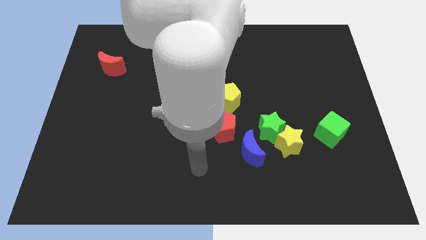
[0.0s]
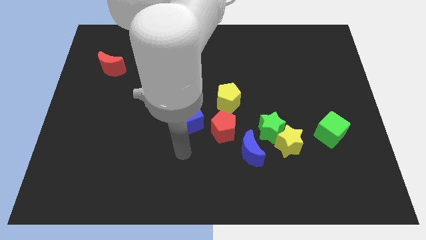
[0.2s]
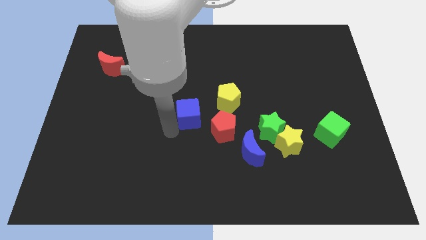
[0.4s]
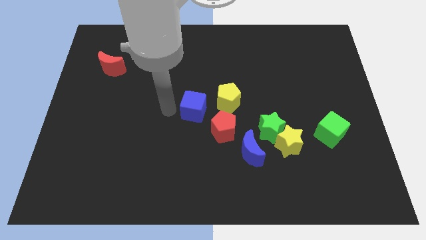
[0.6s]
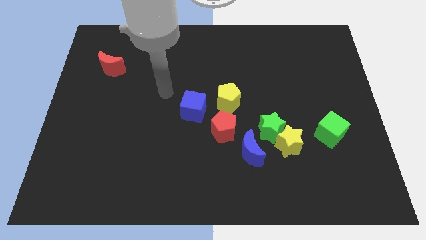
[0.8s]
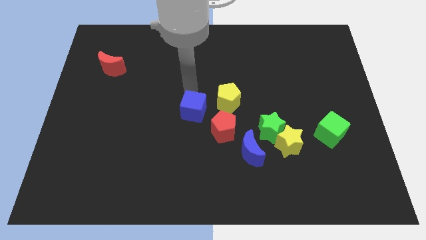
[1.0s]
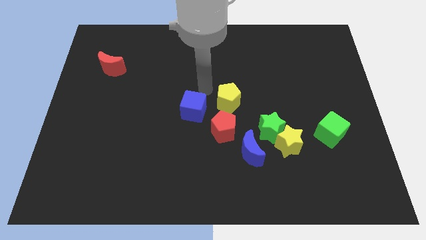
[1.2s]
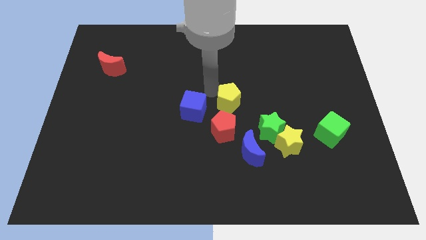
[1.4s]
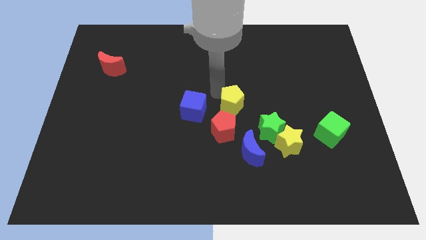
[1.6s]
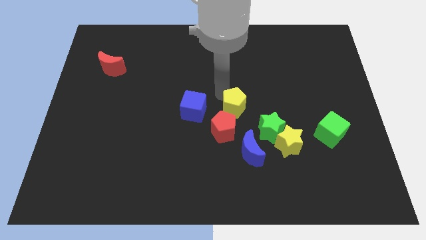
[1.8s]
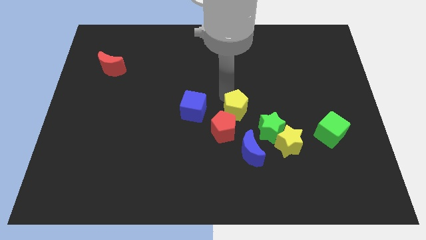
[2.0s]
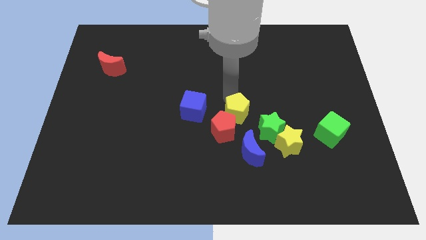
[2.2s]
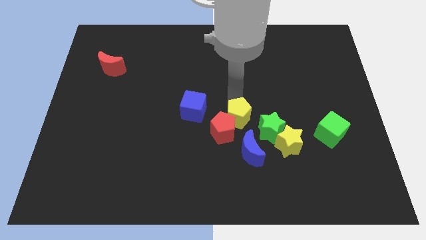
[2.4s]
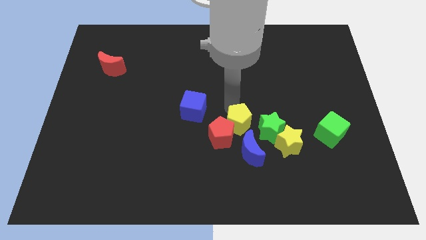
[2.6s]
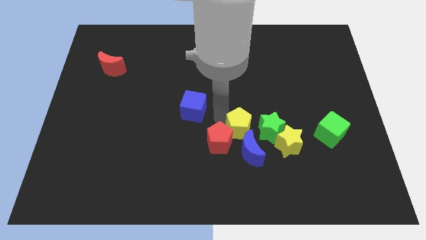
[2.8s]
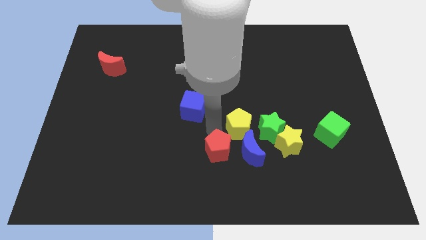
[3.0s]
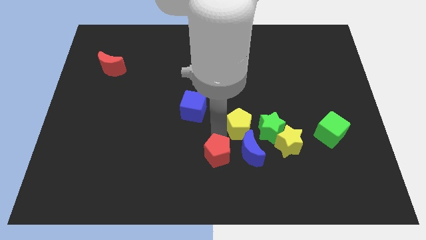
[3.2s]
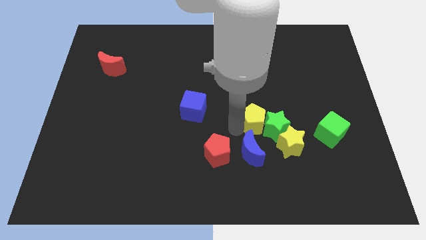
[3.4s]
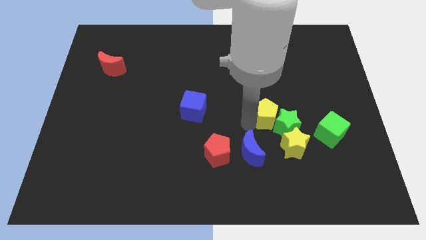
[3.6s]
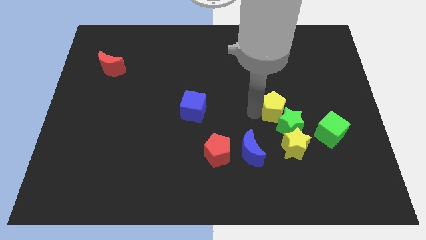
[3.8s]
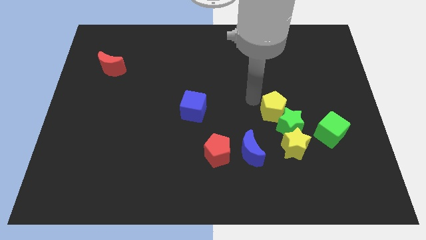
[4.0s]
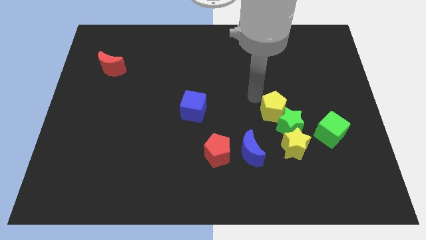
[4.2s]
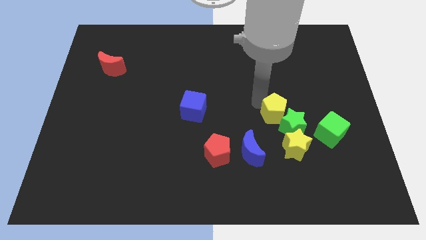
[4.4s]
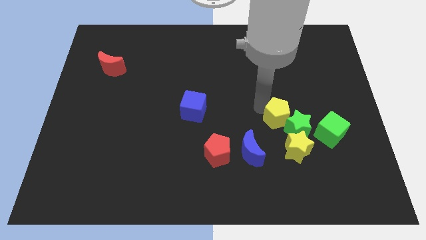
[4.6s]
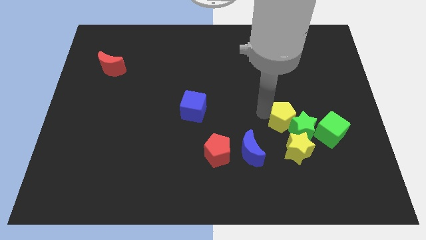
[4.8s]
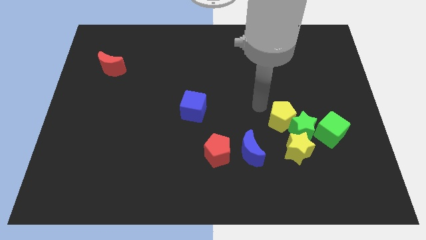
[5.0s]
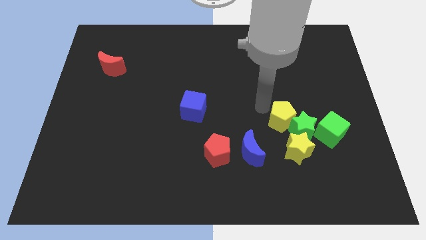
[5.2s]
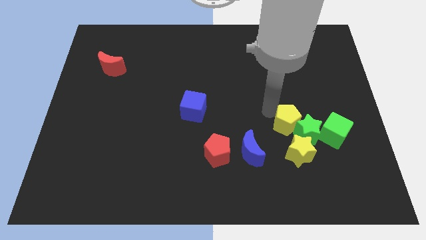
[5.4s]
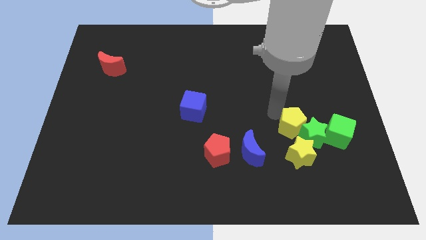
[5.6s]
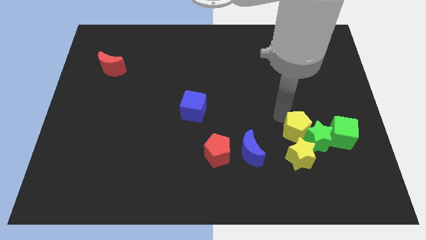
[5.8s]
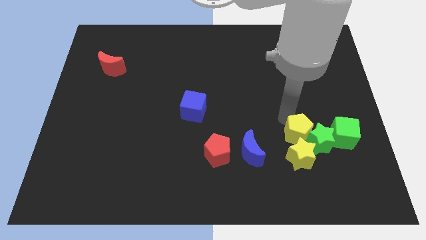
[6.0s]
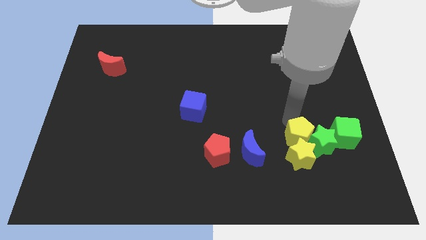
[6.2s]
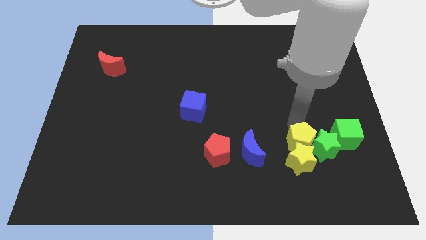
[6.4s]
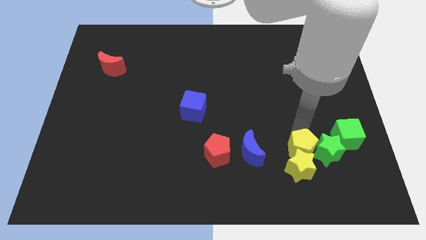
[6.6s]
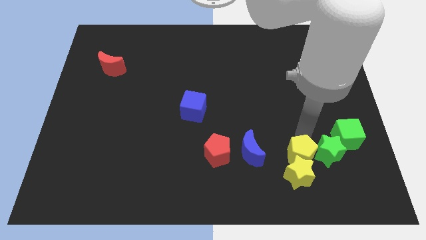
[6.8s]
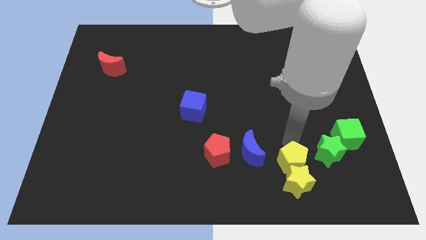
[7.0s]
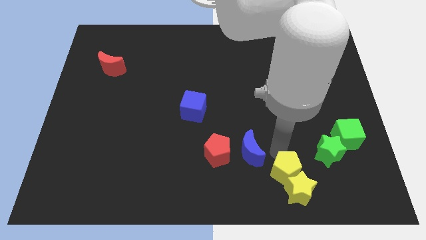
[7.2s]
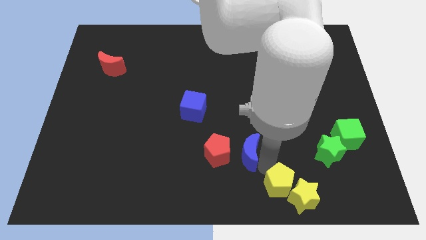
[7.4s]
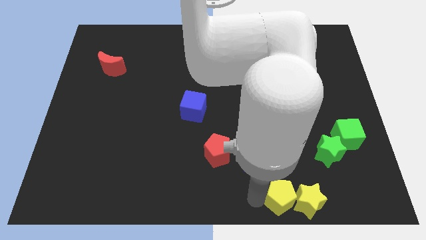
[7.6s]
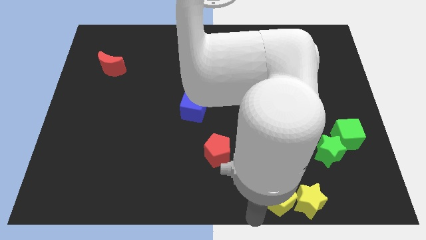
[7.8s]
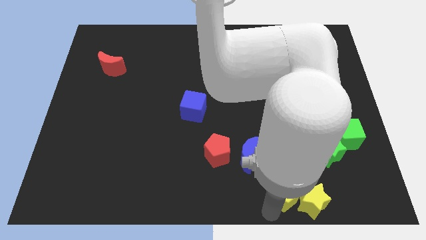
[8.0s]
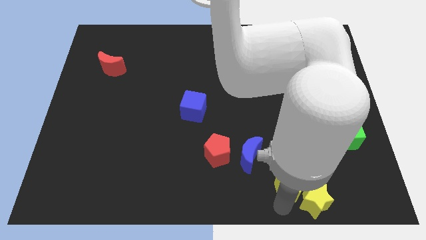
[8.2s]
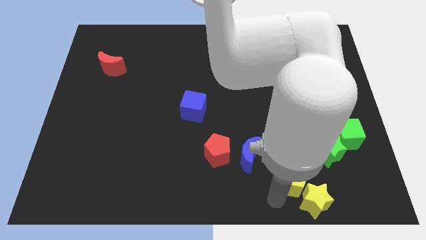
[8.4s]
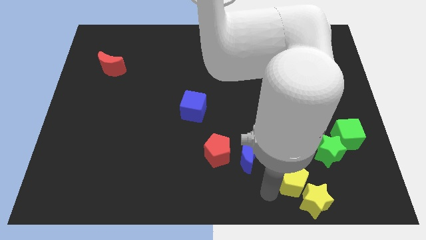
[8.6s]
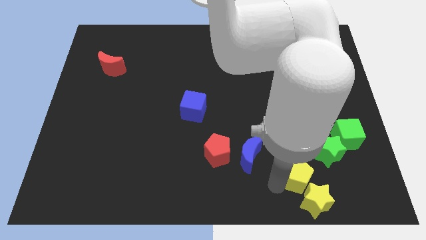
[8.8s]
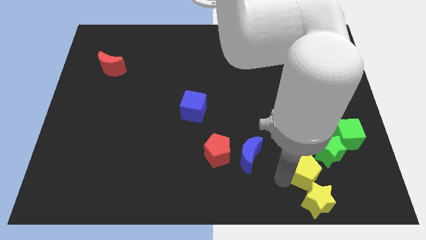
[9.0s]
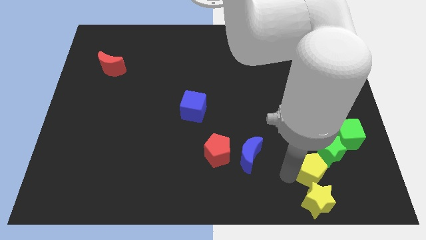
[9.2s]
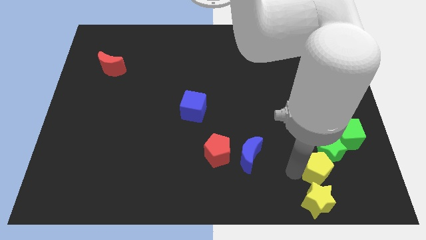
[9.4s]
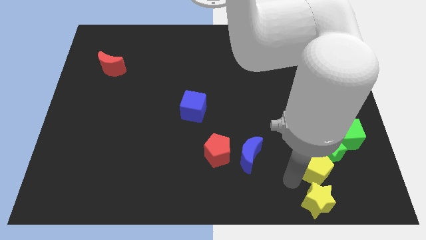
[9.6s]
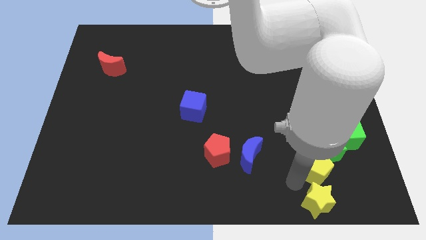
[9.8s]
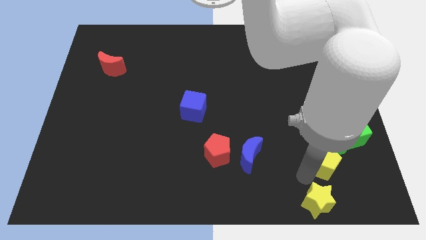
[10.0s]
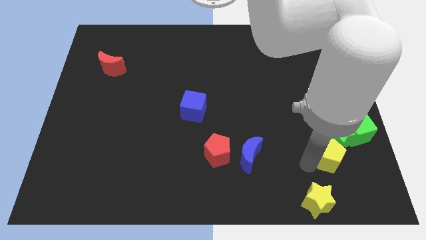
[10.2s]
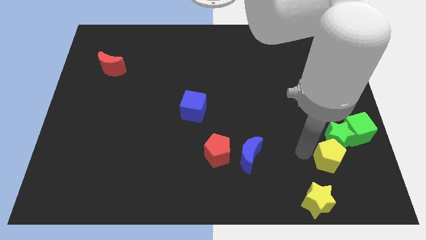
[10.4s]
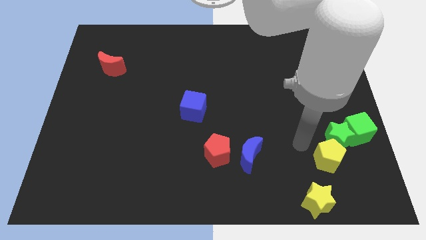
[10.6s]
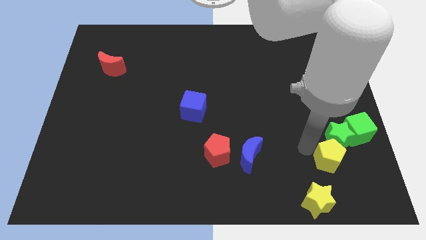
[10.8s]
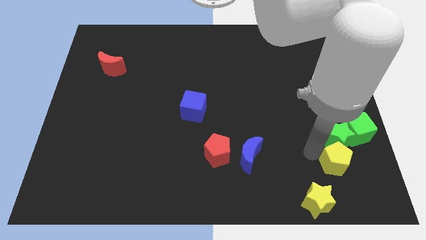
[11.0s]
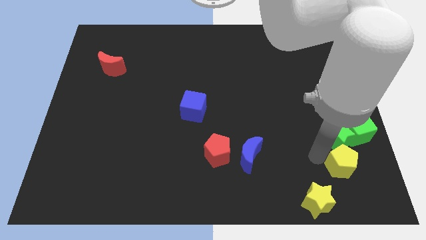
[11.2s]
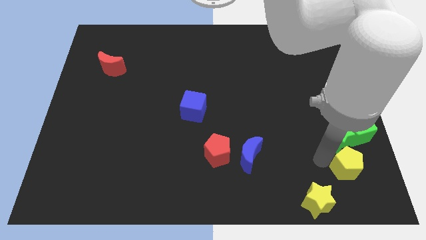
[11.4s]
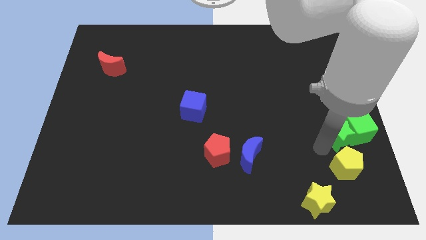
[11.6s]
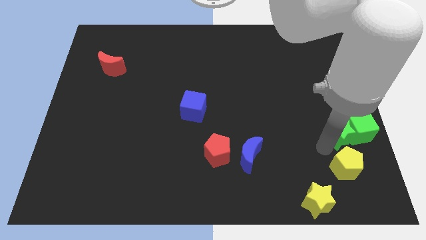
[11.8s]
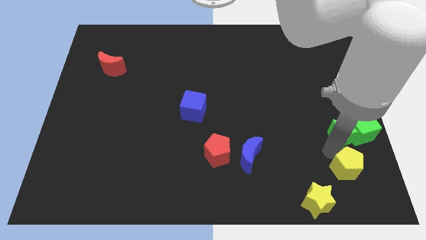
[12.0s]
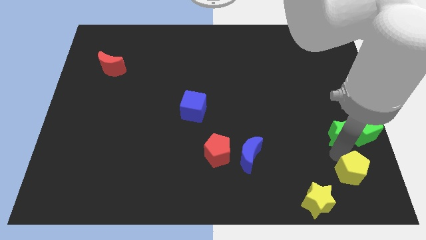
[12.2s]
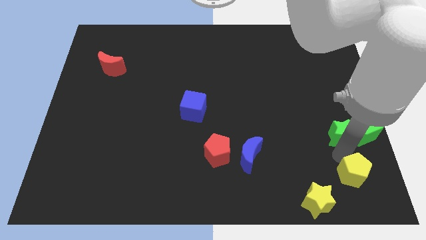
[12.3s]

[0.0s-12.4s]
slide the yellow pentagon to the bottom right corner
